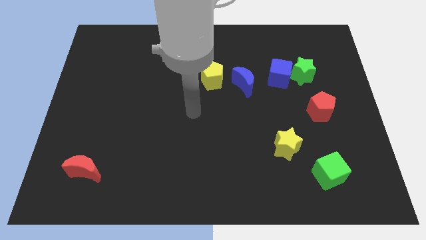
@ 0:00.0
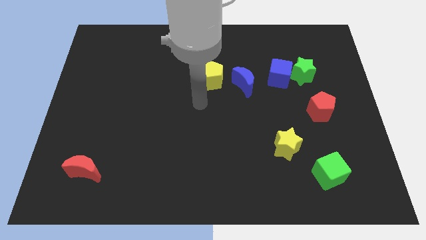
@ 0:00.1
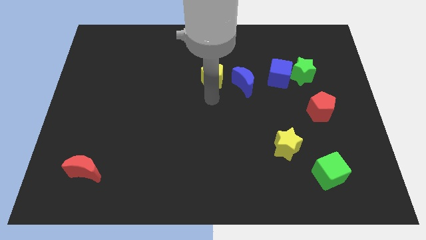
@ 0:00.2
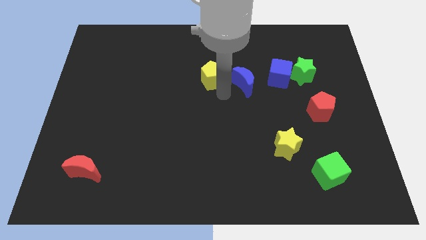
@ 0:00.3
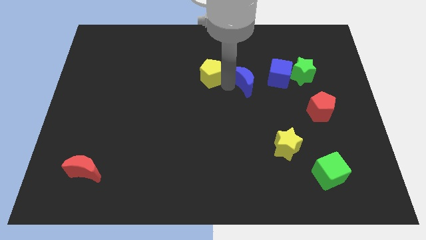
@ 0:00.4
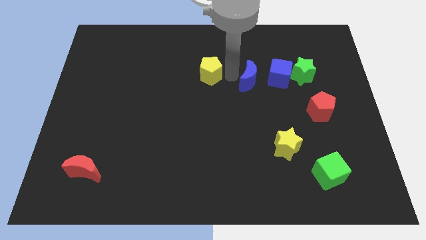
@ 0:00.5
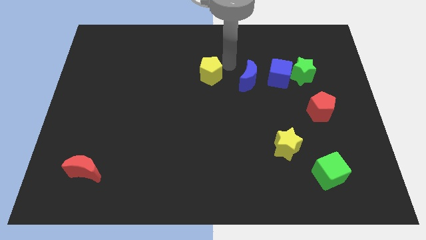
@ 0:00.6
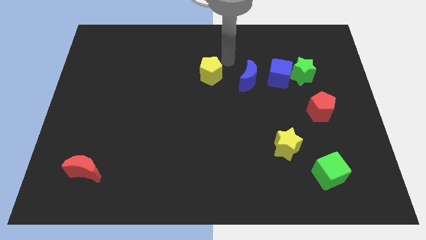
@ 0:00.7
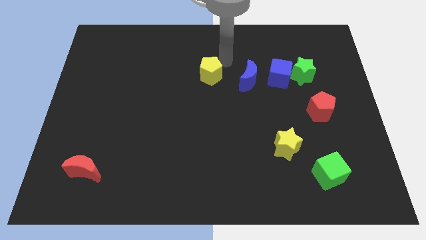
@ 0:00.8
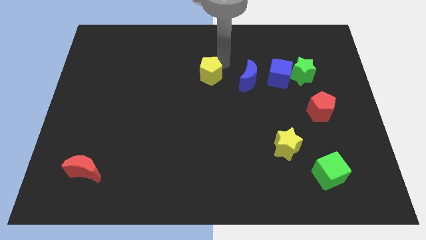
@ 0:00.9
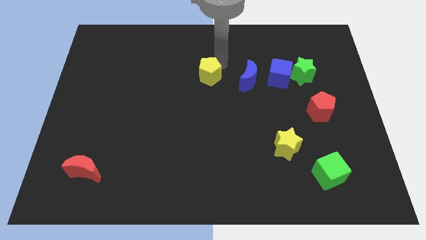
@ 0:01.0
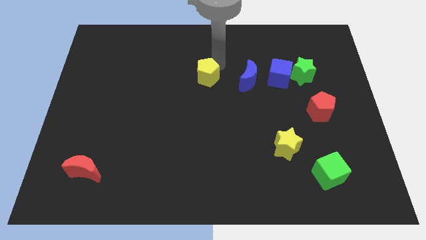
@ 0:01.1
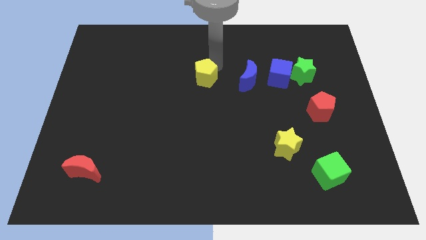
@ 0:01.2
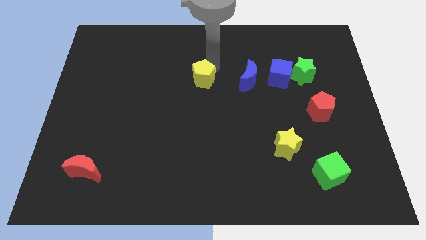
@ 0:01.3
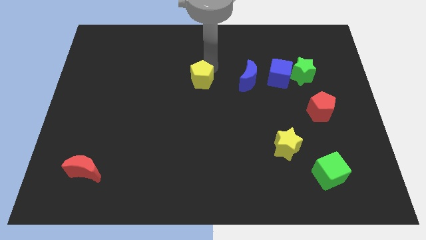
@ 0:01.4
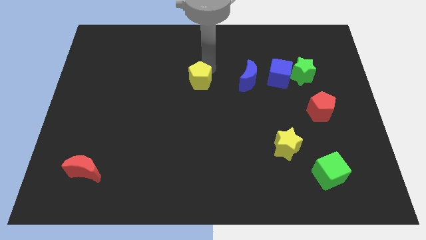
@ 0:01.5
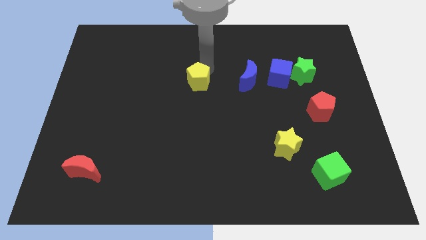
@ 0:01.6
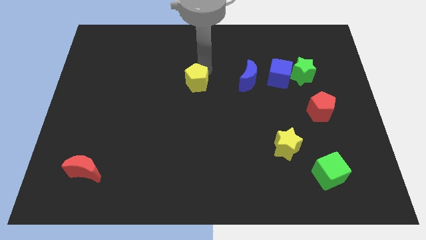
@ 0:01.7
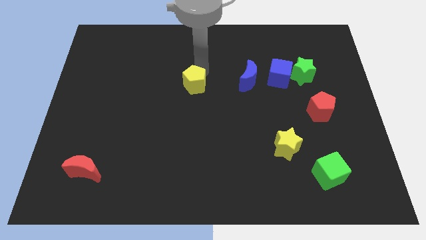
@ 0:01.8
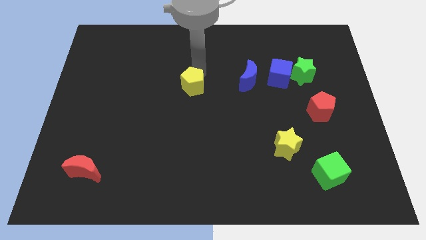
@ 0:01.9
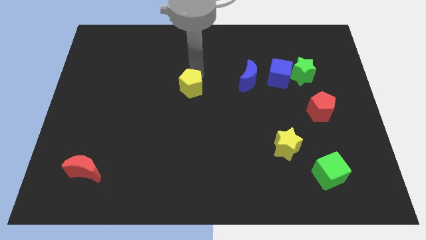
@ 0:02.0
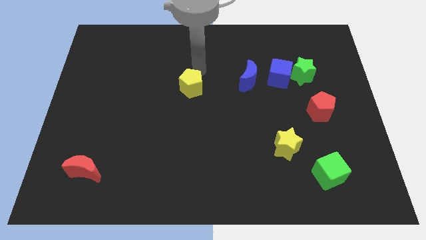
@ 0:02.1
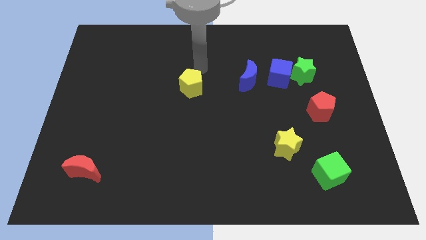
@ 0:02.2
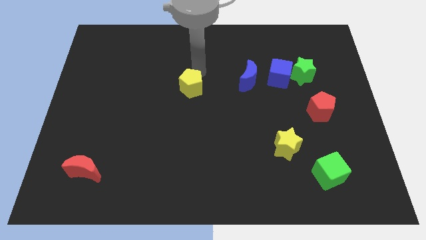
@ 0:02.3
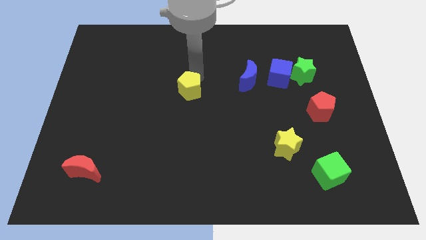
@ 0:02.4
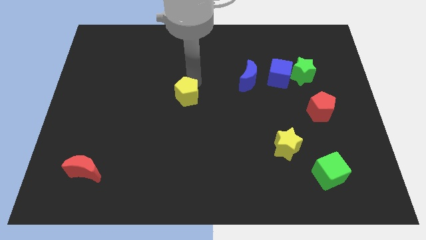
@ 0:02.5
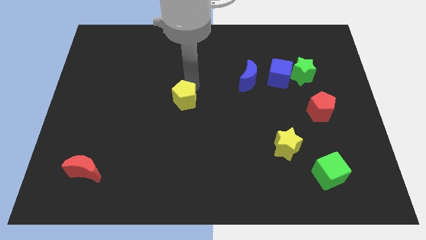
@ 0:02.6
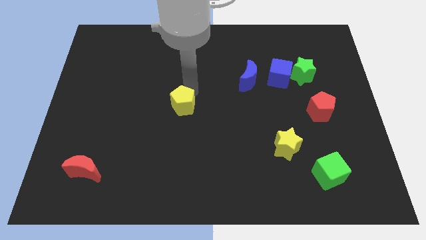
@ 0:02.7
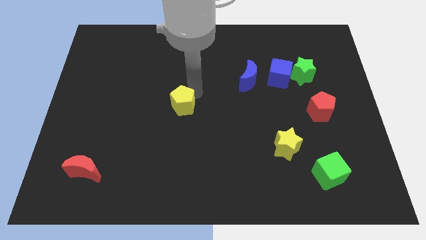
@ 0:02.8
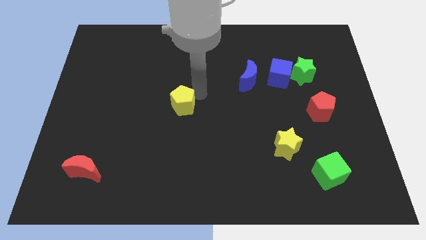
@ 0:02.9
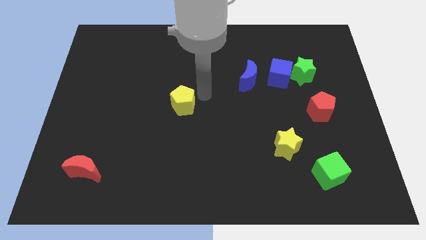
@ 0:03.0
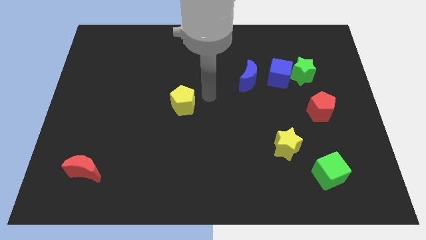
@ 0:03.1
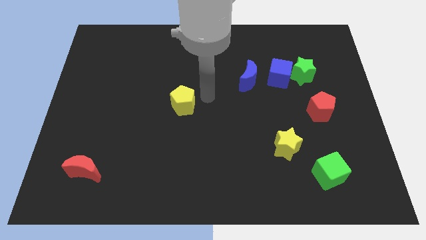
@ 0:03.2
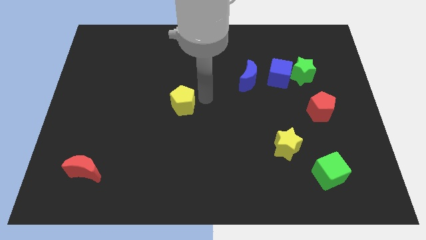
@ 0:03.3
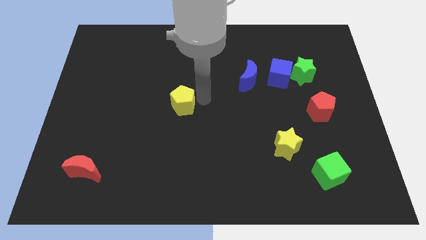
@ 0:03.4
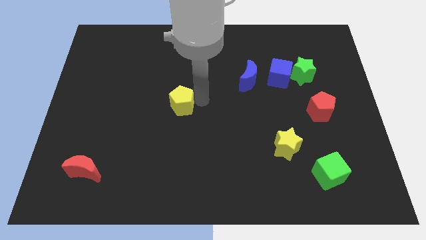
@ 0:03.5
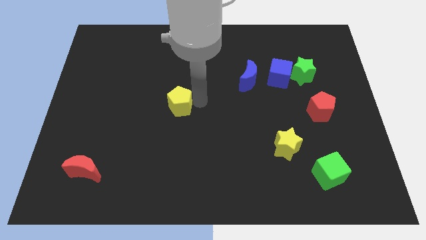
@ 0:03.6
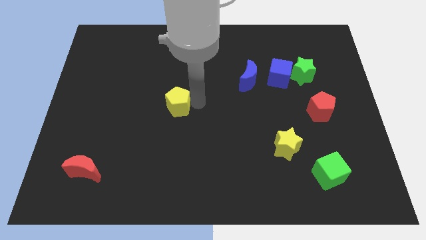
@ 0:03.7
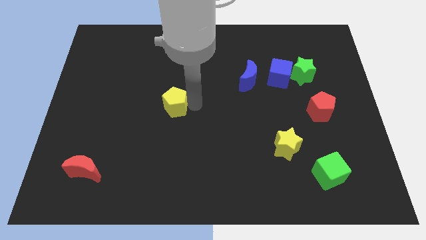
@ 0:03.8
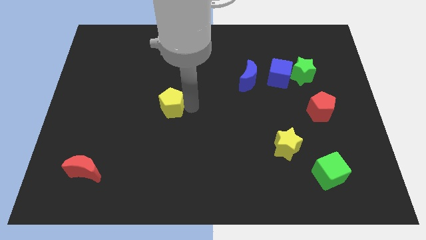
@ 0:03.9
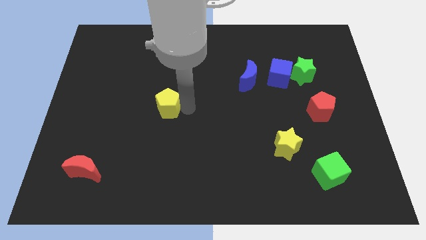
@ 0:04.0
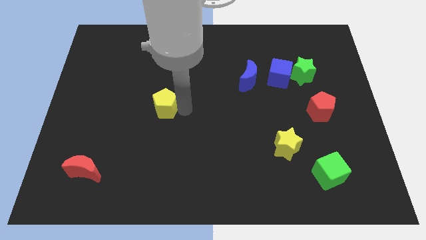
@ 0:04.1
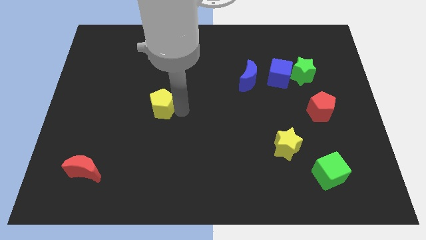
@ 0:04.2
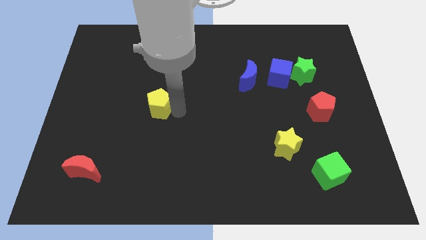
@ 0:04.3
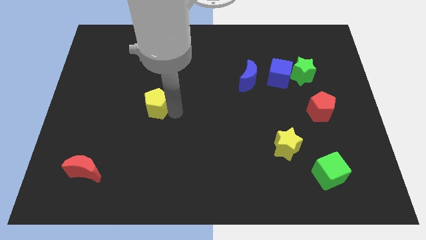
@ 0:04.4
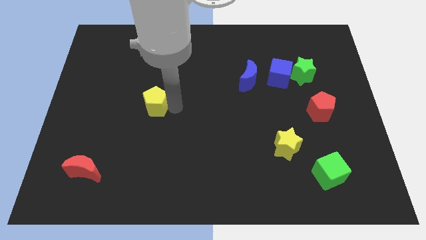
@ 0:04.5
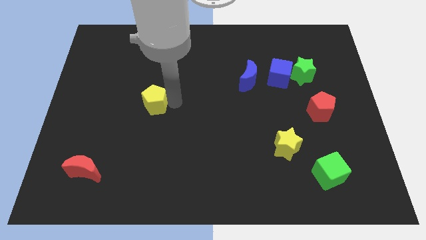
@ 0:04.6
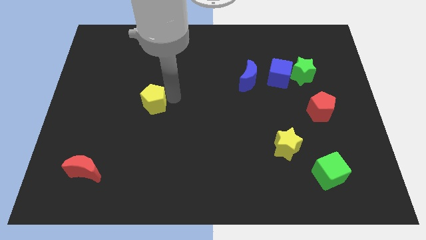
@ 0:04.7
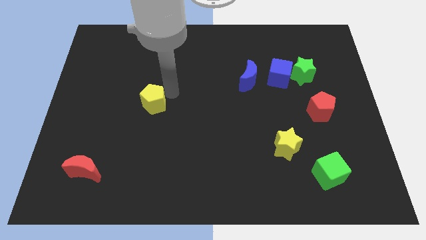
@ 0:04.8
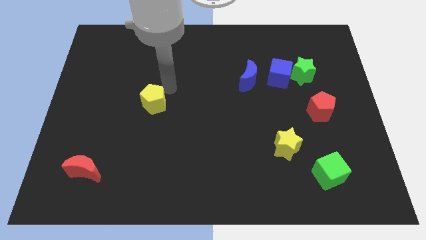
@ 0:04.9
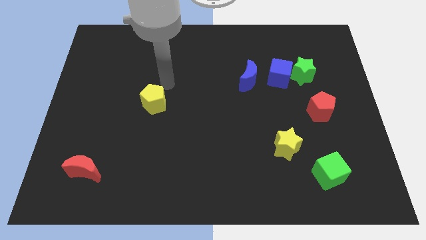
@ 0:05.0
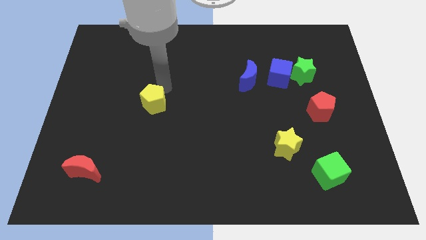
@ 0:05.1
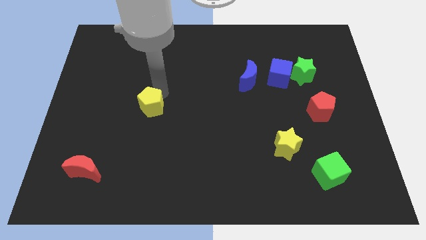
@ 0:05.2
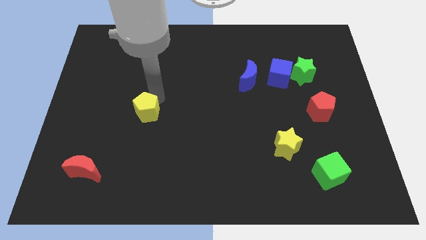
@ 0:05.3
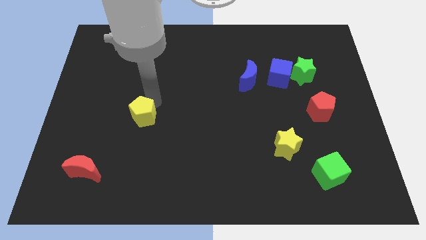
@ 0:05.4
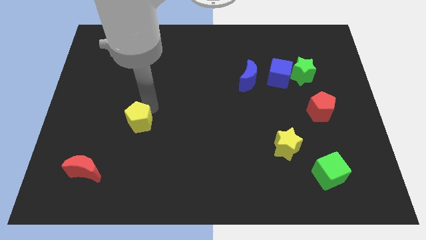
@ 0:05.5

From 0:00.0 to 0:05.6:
push the yellow pentagon down and left diagonally

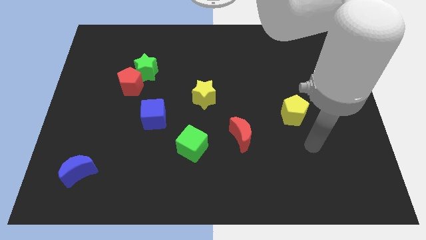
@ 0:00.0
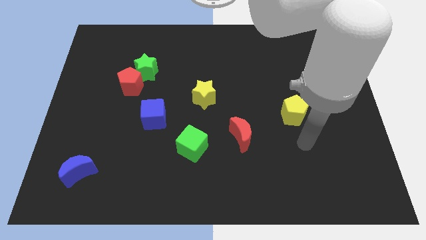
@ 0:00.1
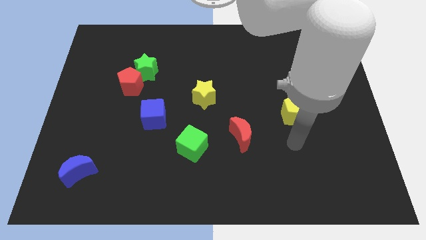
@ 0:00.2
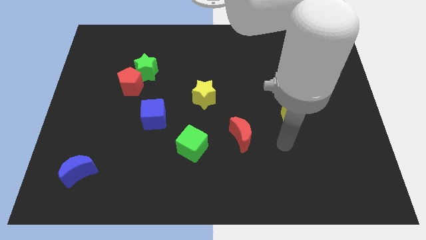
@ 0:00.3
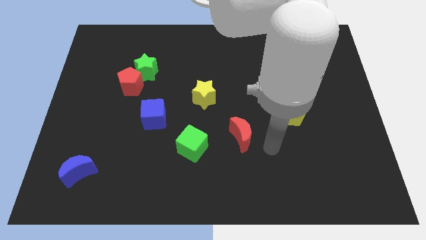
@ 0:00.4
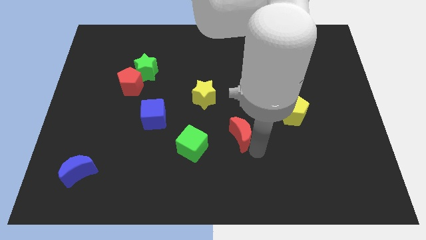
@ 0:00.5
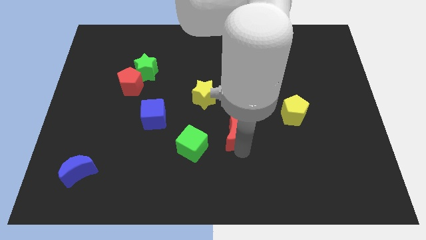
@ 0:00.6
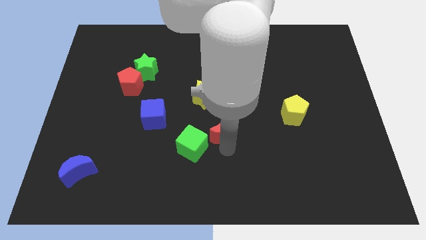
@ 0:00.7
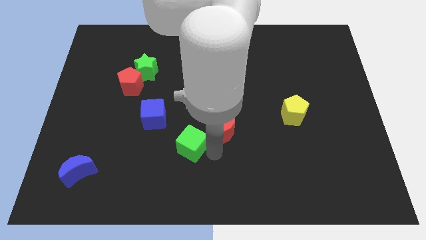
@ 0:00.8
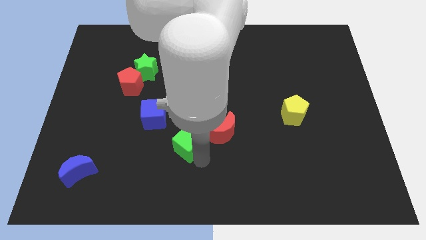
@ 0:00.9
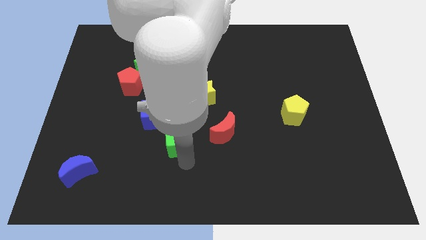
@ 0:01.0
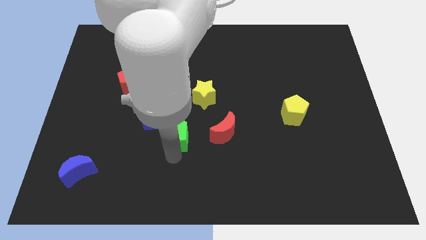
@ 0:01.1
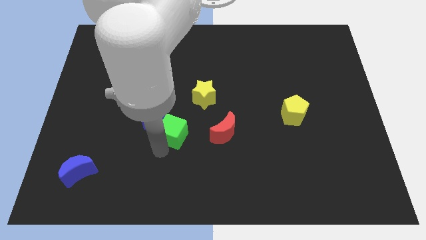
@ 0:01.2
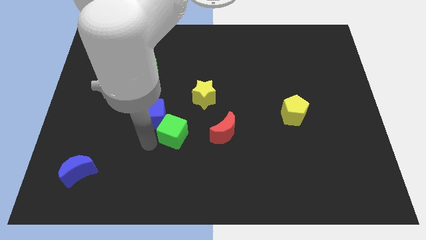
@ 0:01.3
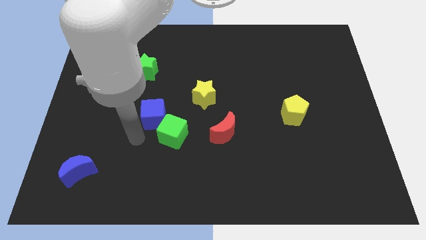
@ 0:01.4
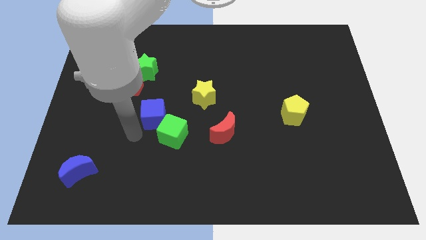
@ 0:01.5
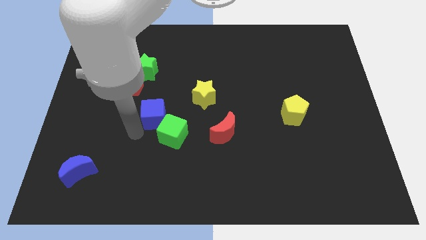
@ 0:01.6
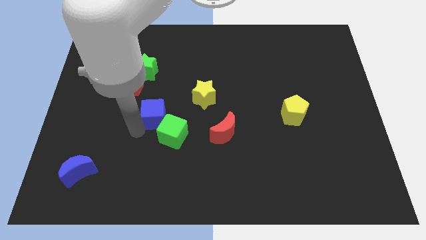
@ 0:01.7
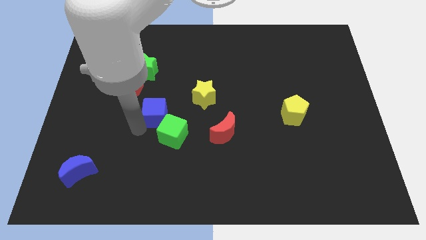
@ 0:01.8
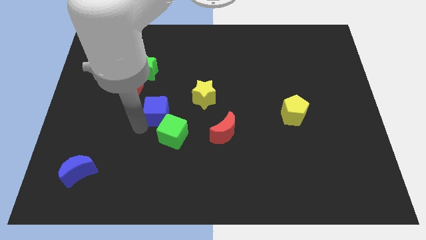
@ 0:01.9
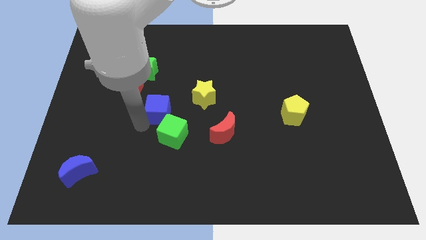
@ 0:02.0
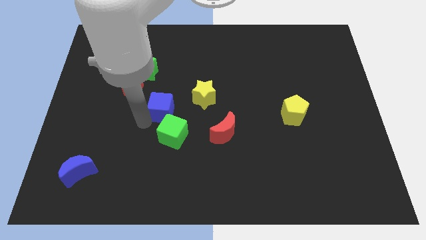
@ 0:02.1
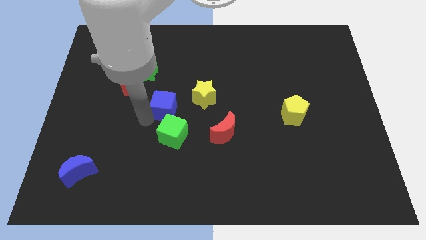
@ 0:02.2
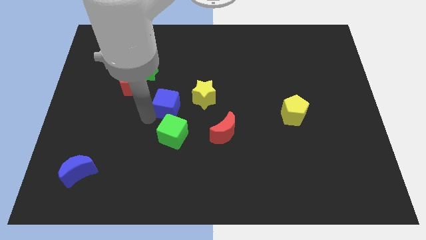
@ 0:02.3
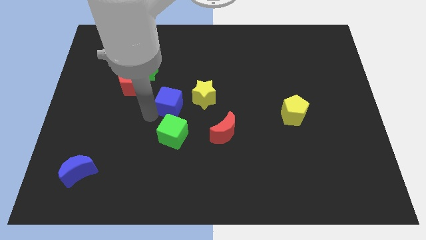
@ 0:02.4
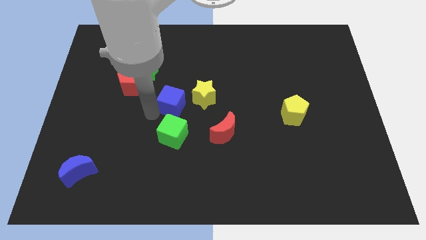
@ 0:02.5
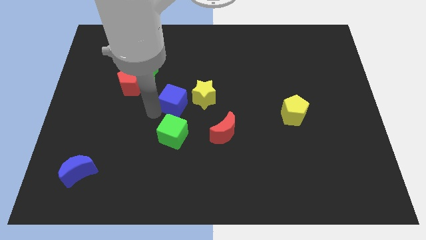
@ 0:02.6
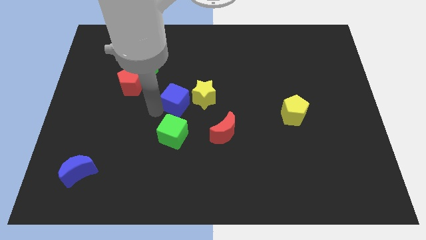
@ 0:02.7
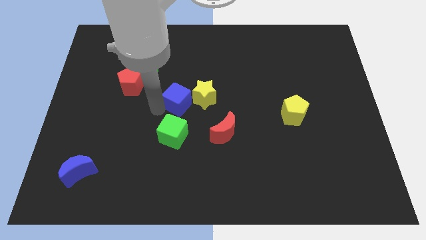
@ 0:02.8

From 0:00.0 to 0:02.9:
push the blue cube slightly up and right
